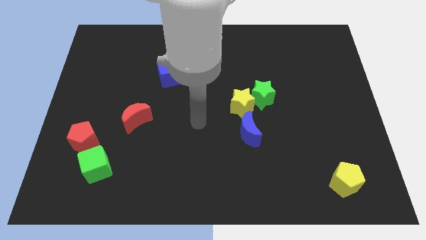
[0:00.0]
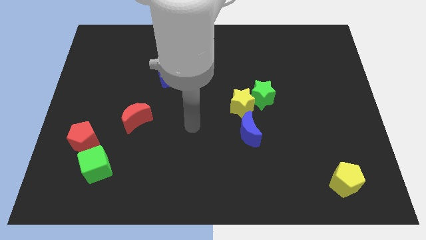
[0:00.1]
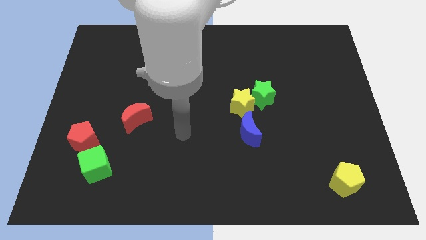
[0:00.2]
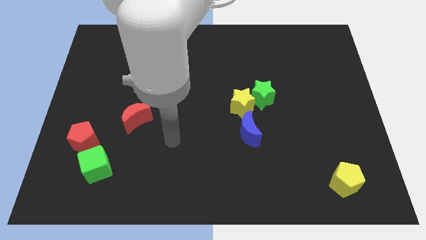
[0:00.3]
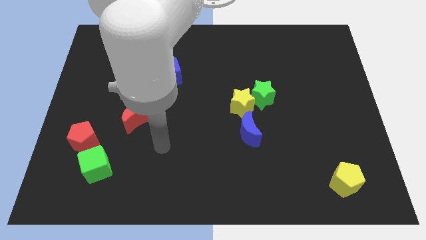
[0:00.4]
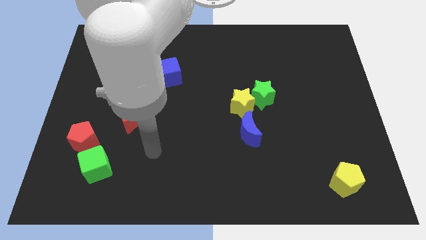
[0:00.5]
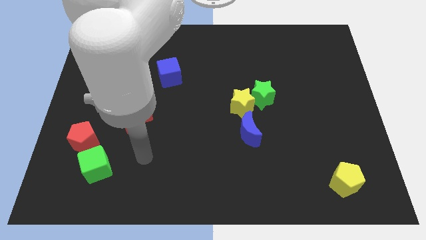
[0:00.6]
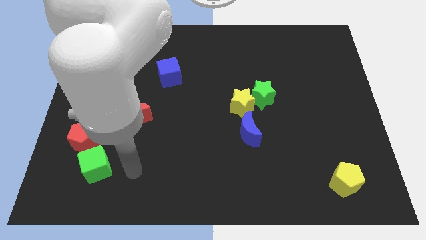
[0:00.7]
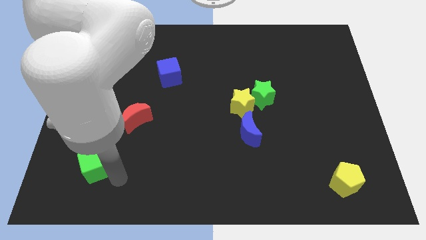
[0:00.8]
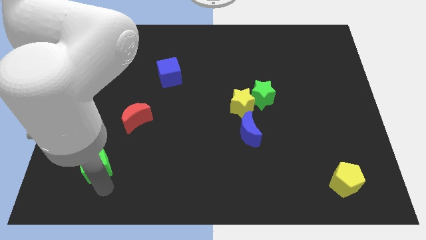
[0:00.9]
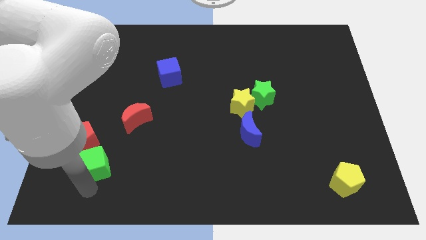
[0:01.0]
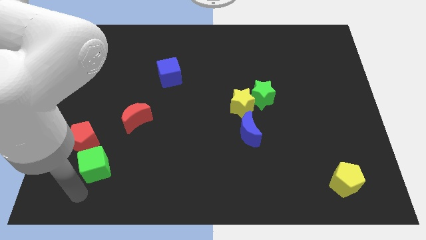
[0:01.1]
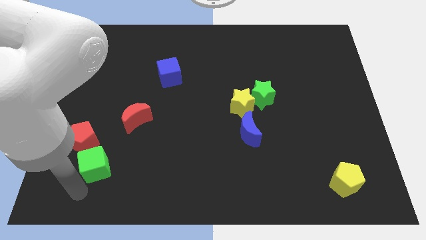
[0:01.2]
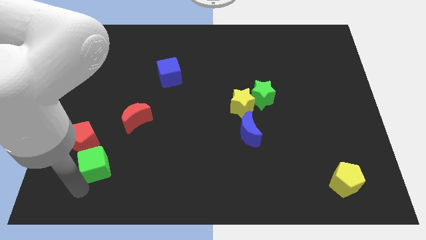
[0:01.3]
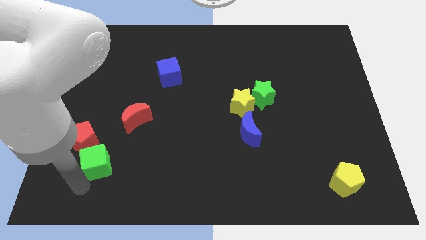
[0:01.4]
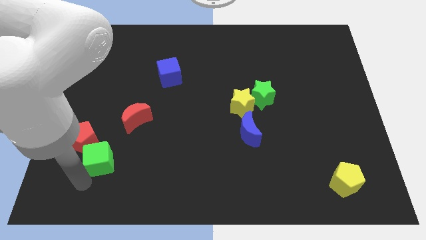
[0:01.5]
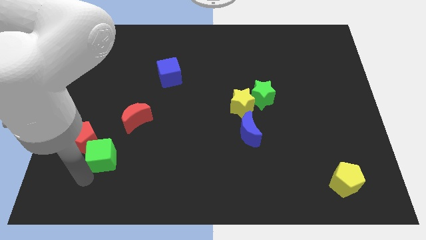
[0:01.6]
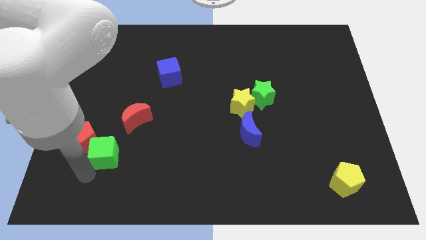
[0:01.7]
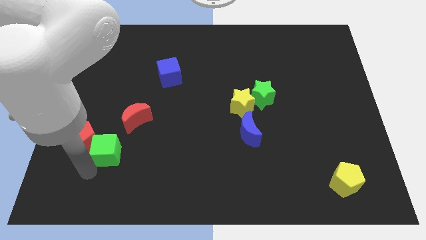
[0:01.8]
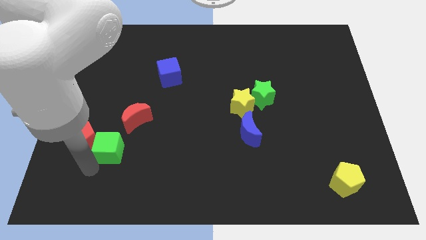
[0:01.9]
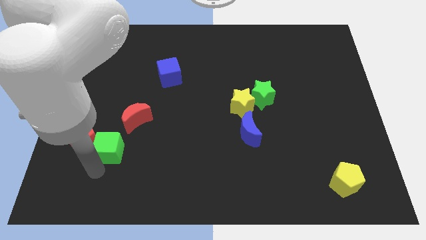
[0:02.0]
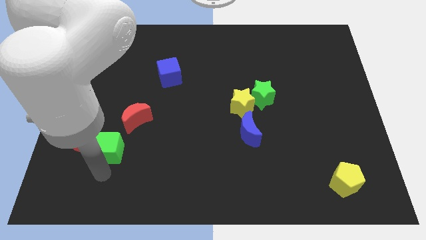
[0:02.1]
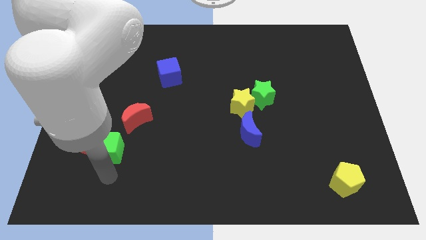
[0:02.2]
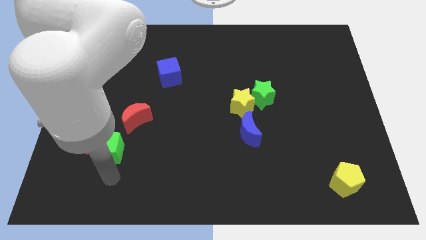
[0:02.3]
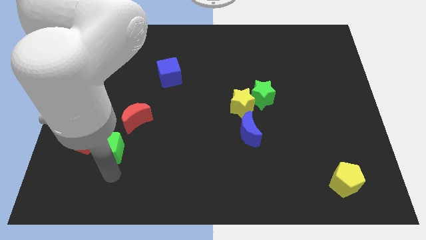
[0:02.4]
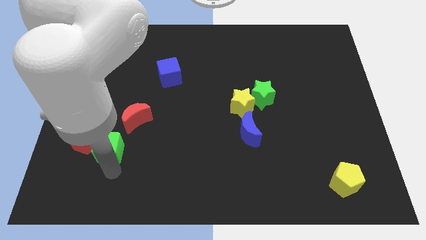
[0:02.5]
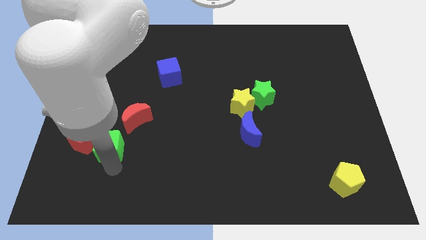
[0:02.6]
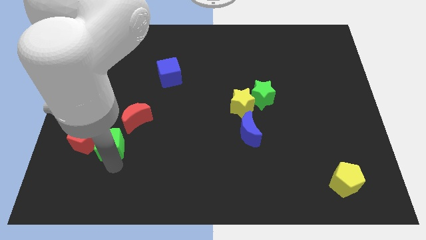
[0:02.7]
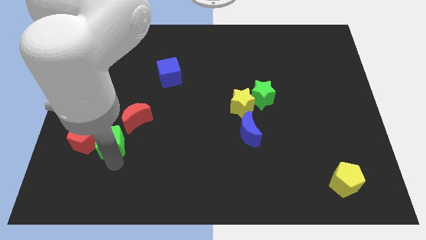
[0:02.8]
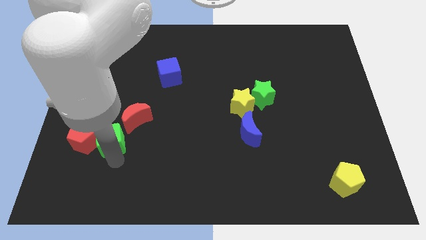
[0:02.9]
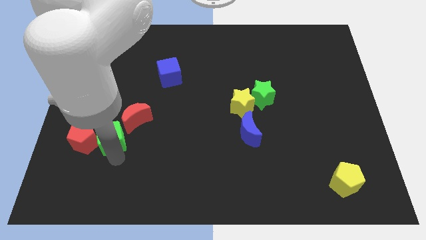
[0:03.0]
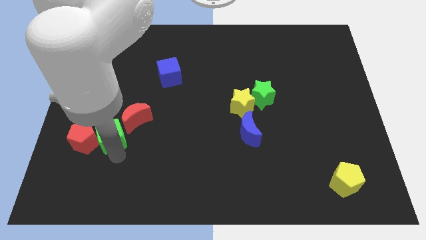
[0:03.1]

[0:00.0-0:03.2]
slightly slide the green cube upwards

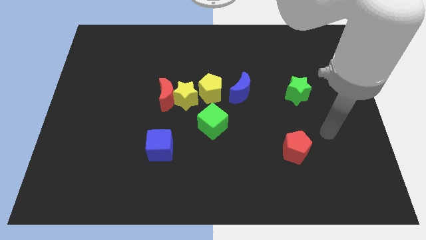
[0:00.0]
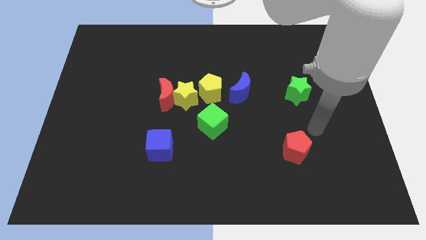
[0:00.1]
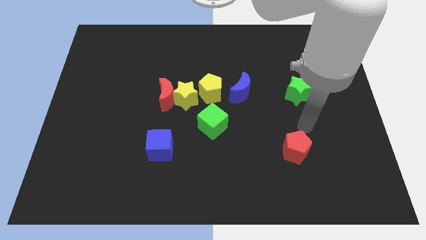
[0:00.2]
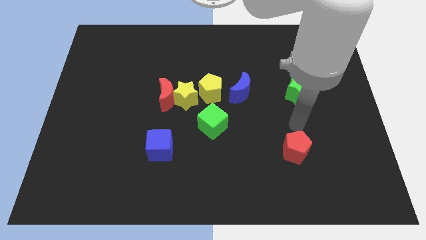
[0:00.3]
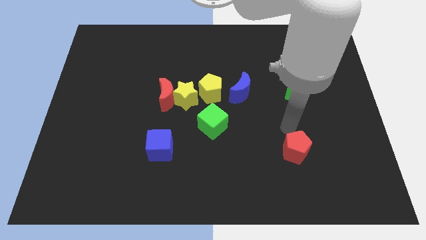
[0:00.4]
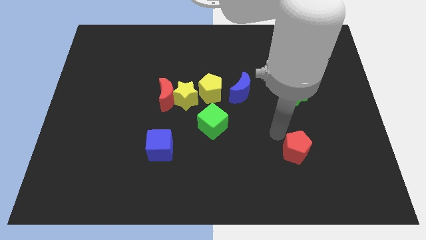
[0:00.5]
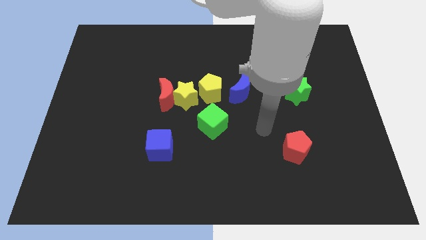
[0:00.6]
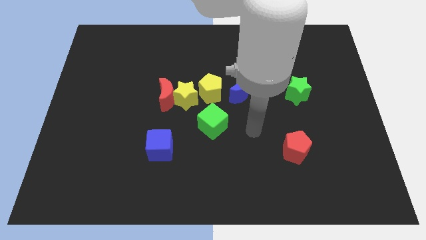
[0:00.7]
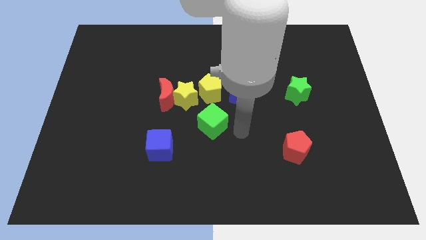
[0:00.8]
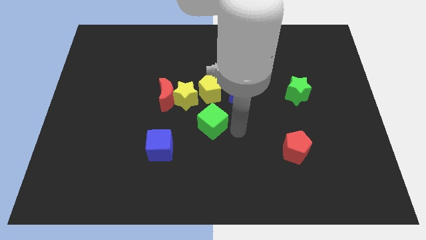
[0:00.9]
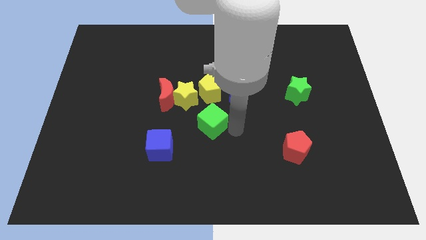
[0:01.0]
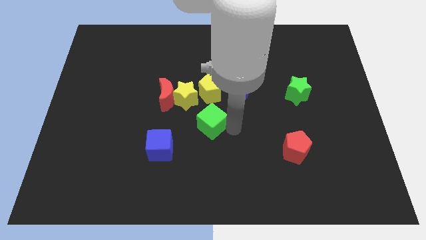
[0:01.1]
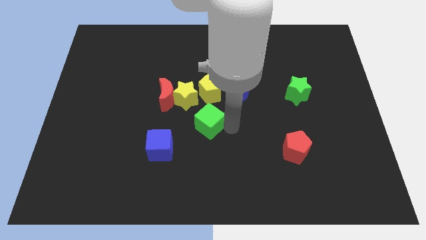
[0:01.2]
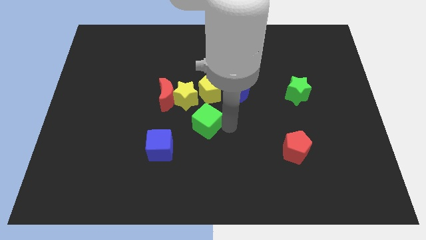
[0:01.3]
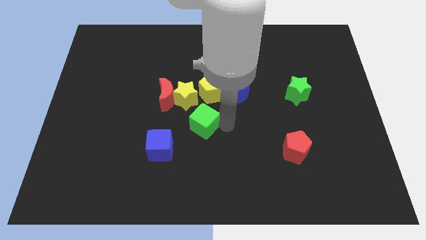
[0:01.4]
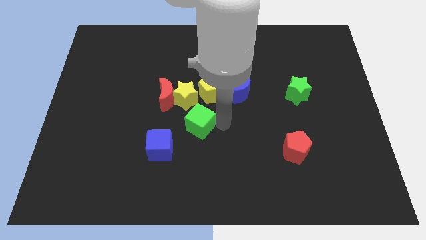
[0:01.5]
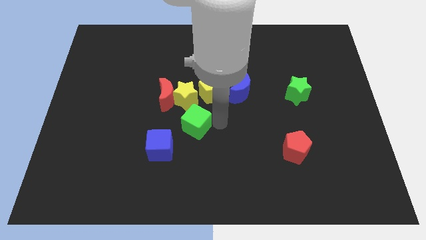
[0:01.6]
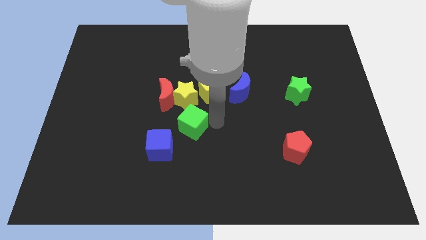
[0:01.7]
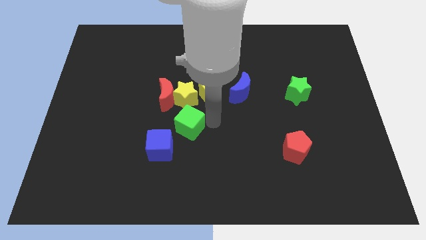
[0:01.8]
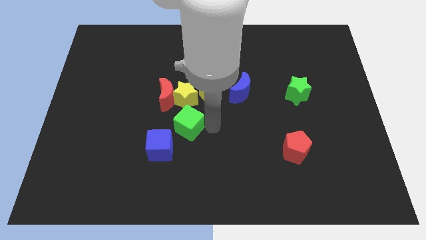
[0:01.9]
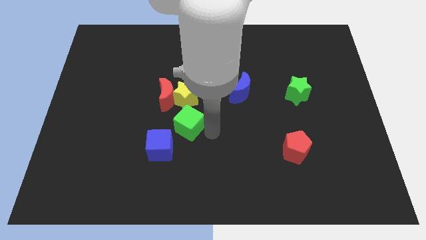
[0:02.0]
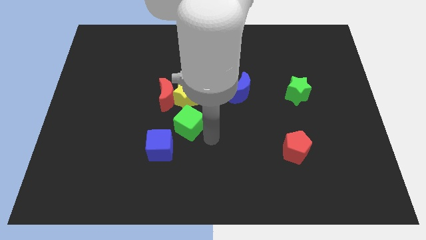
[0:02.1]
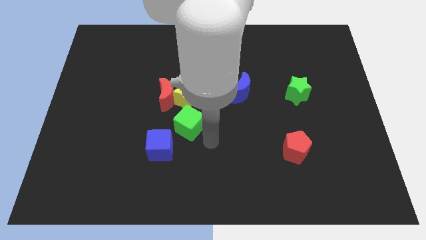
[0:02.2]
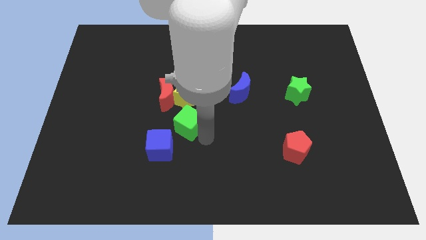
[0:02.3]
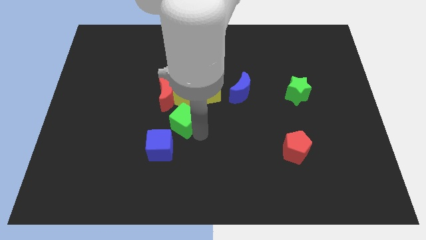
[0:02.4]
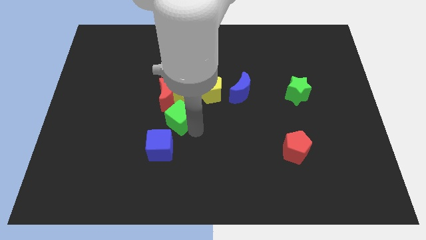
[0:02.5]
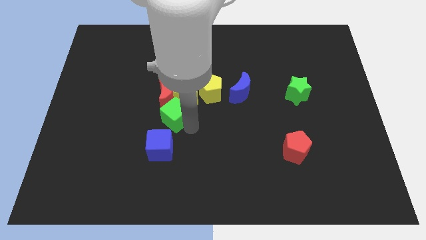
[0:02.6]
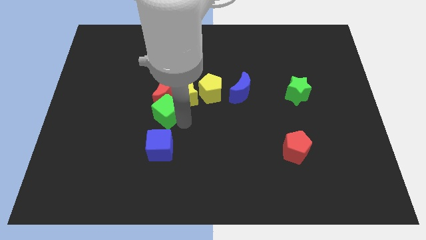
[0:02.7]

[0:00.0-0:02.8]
push the green cube slightly upwards and left diagonally

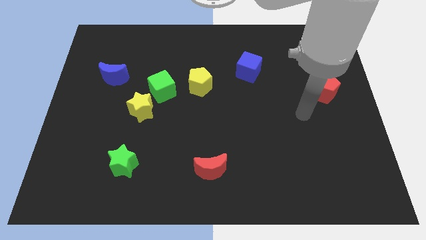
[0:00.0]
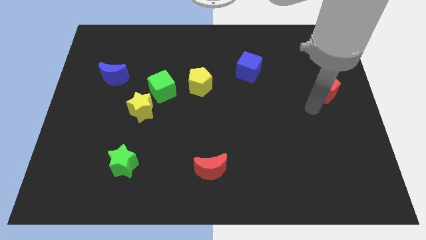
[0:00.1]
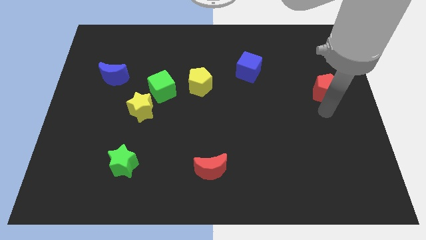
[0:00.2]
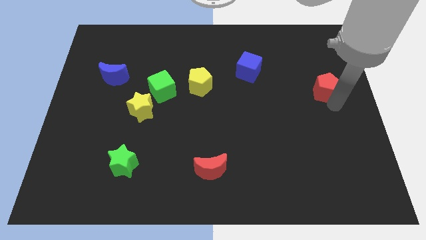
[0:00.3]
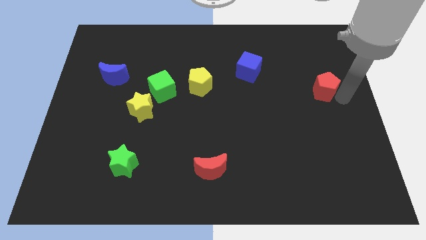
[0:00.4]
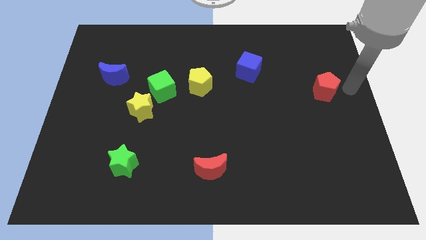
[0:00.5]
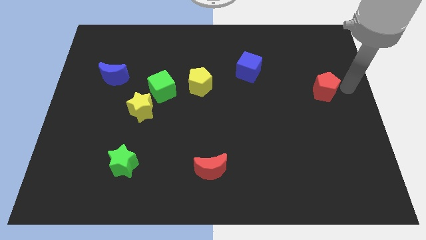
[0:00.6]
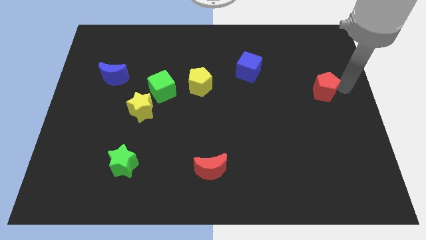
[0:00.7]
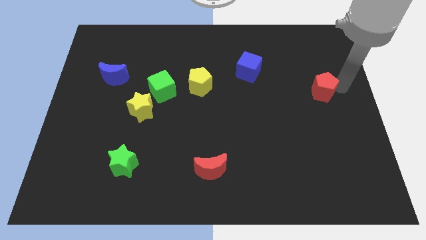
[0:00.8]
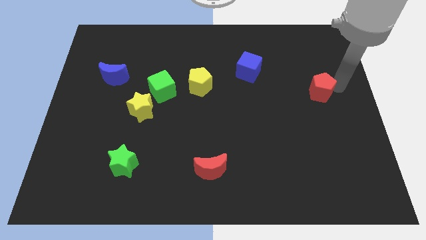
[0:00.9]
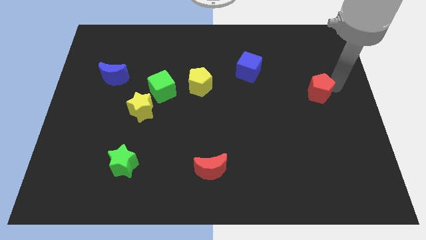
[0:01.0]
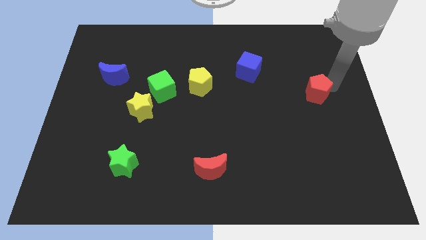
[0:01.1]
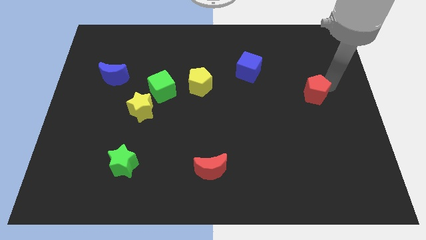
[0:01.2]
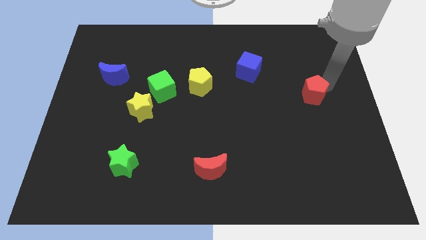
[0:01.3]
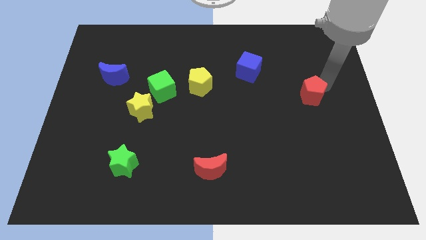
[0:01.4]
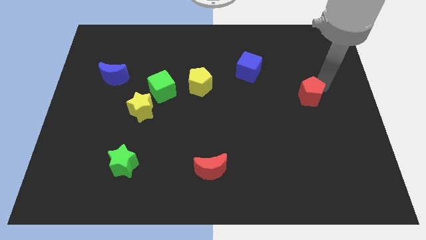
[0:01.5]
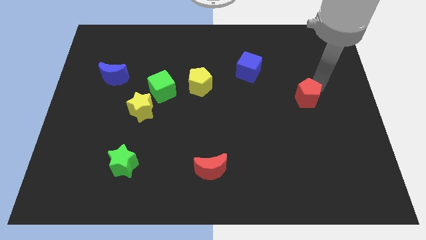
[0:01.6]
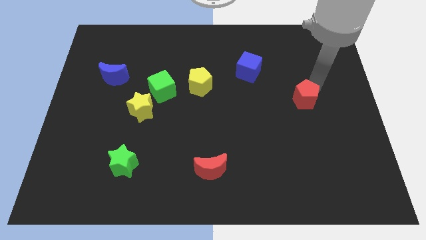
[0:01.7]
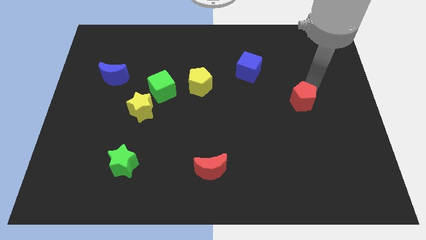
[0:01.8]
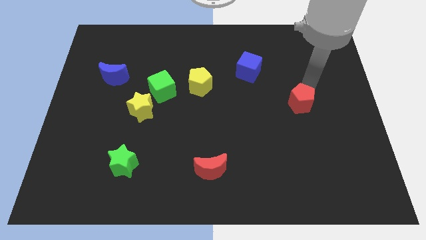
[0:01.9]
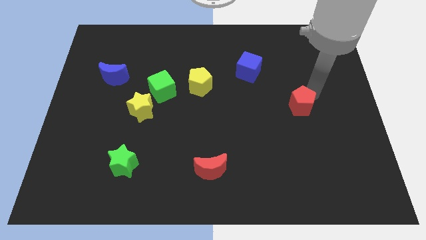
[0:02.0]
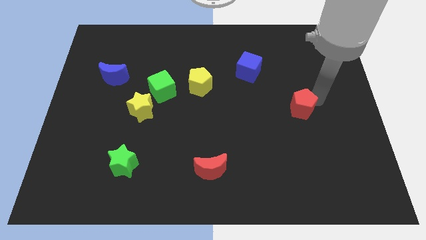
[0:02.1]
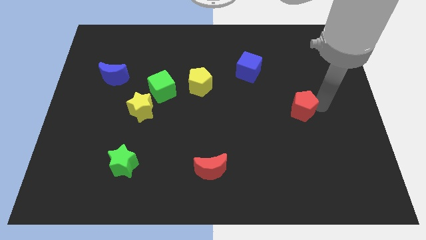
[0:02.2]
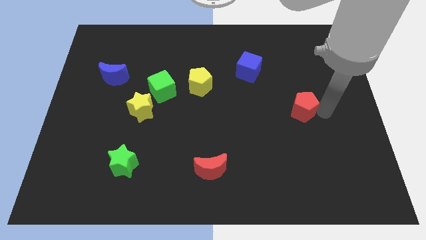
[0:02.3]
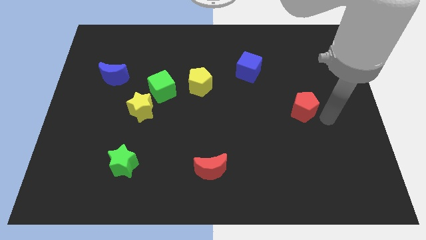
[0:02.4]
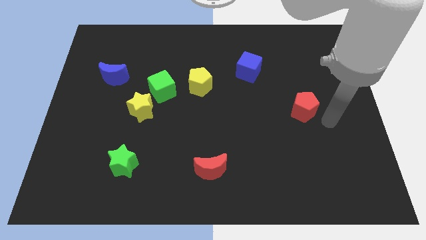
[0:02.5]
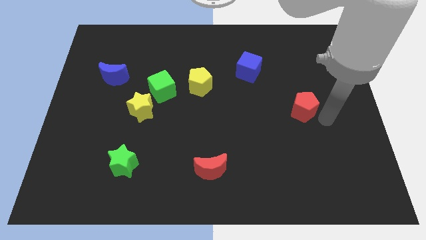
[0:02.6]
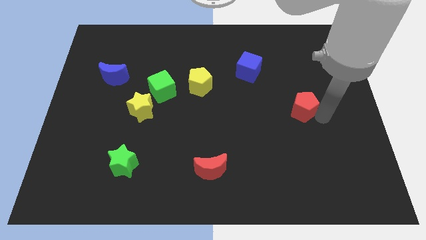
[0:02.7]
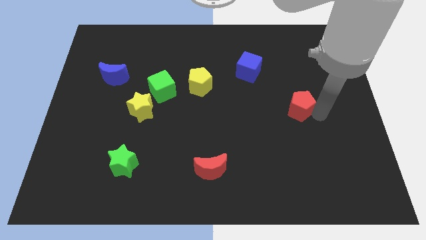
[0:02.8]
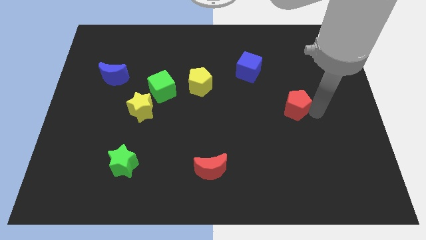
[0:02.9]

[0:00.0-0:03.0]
move the red pentagon somewhat left
